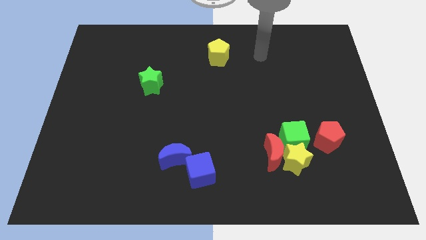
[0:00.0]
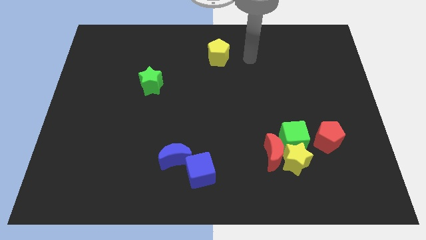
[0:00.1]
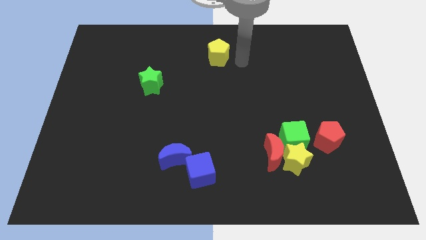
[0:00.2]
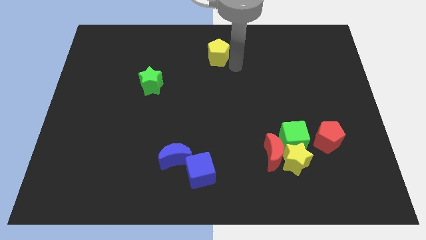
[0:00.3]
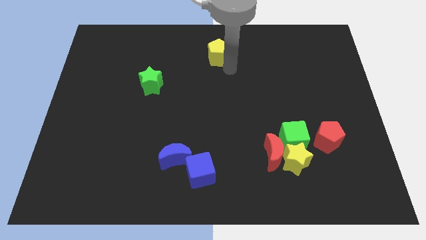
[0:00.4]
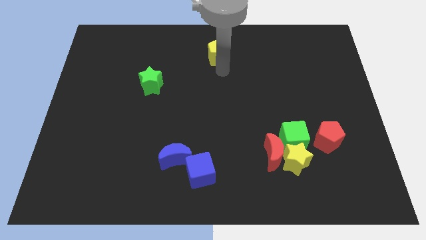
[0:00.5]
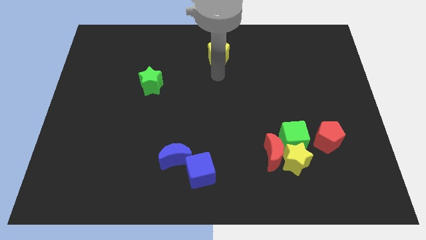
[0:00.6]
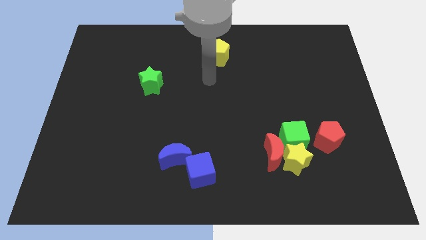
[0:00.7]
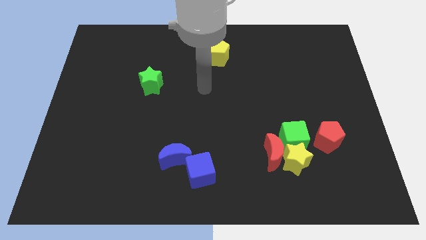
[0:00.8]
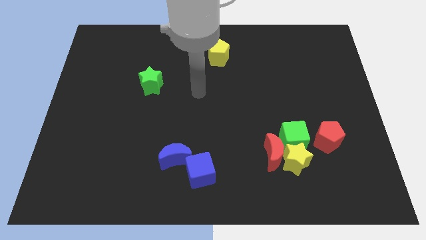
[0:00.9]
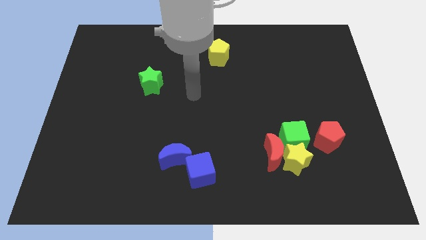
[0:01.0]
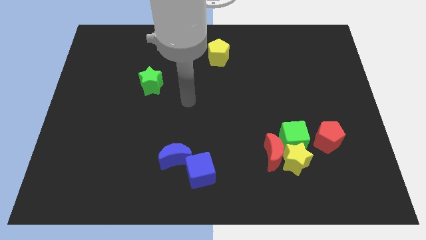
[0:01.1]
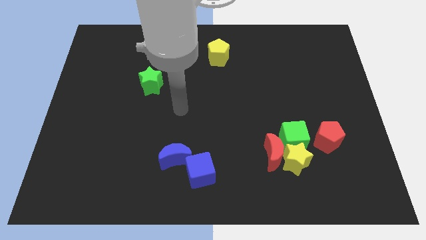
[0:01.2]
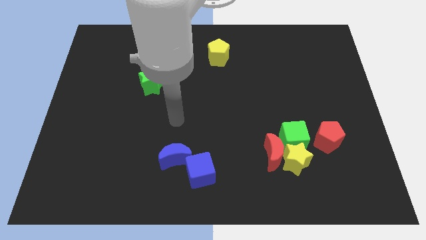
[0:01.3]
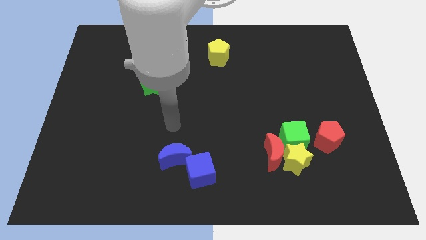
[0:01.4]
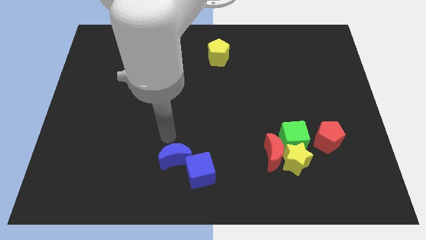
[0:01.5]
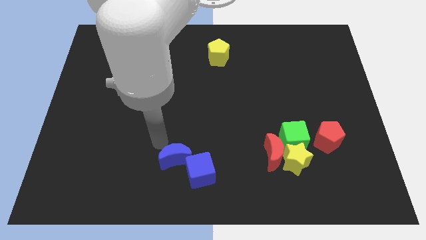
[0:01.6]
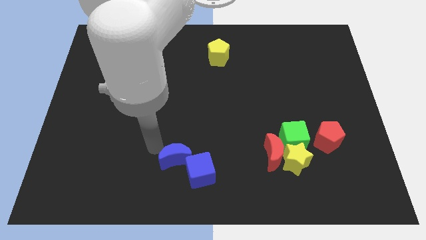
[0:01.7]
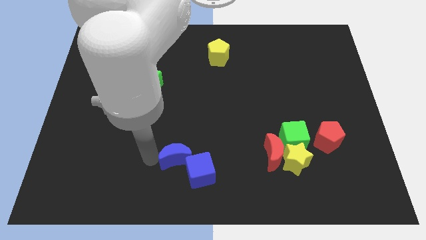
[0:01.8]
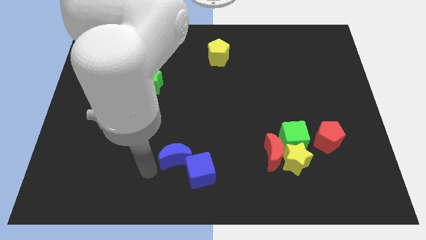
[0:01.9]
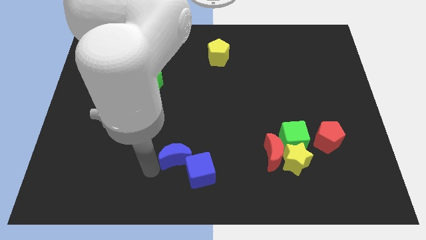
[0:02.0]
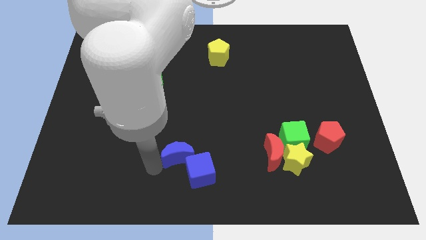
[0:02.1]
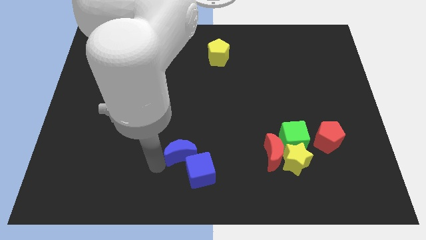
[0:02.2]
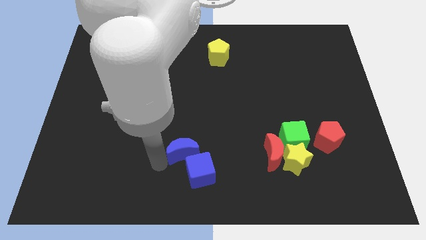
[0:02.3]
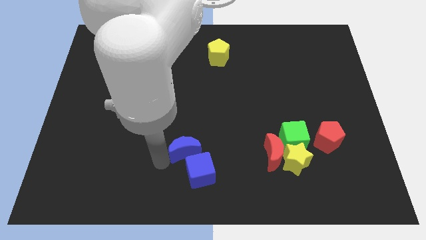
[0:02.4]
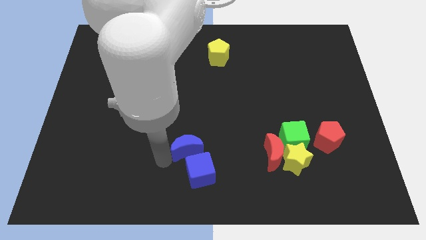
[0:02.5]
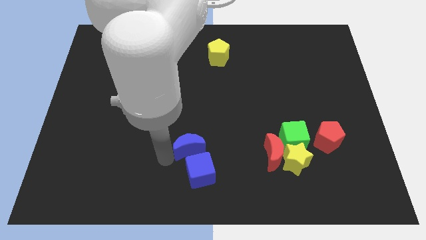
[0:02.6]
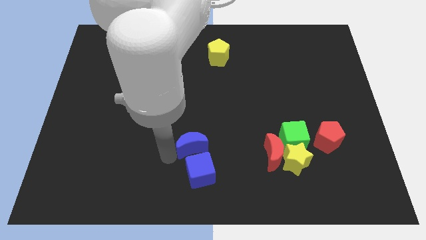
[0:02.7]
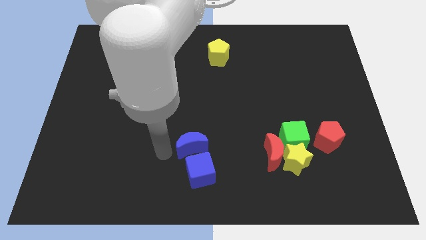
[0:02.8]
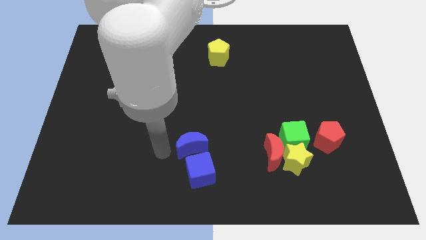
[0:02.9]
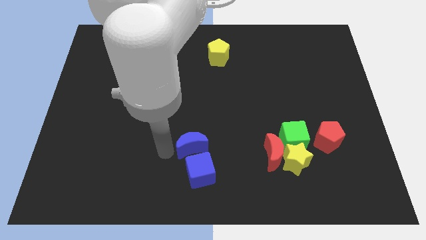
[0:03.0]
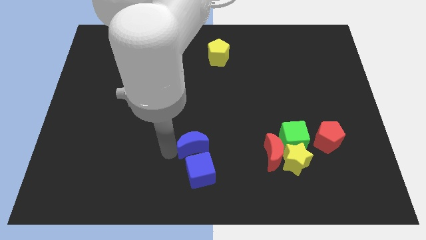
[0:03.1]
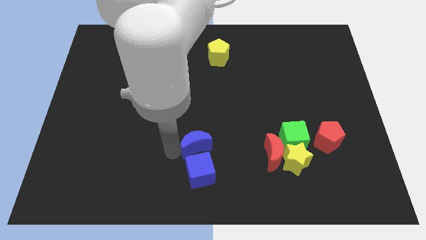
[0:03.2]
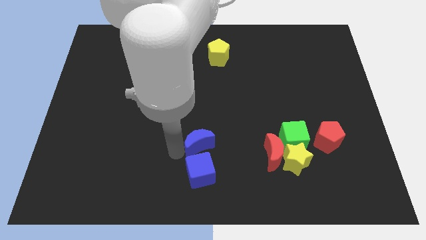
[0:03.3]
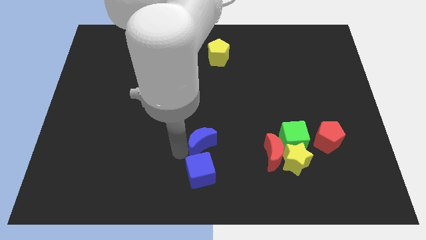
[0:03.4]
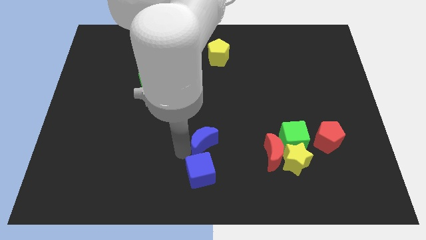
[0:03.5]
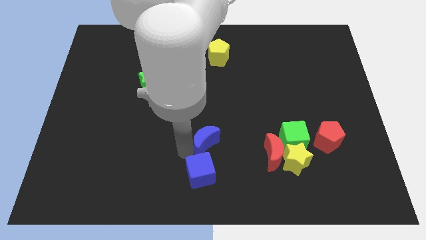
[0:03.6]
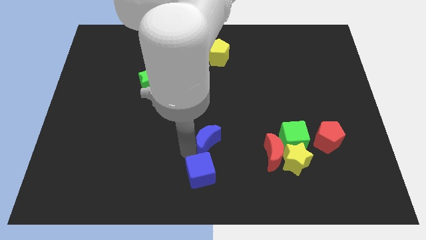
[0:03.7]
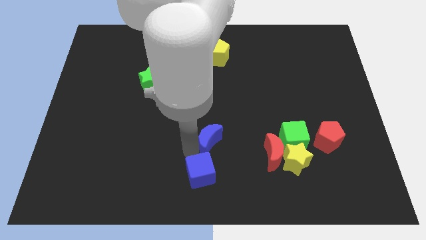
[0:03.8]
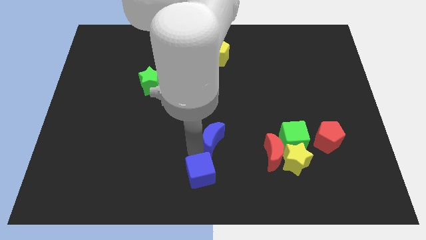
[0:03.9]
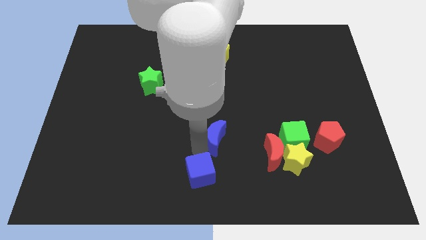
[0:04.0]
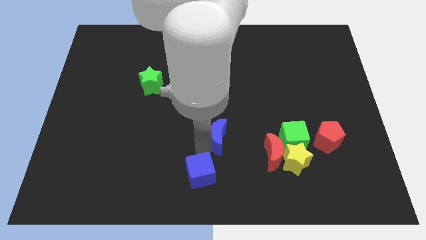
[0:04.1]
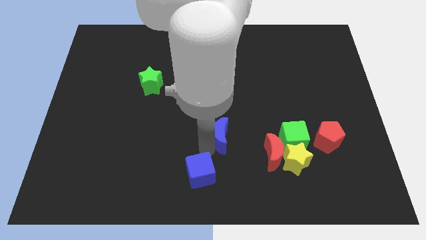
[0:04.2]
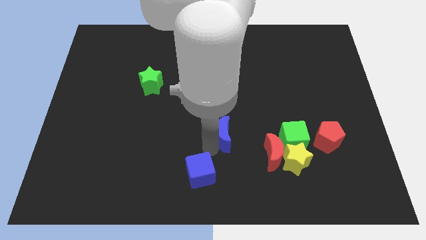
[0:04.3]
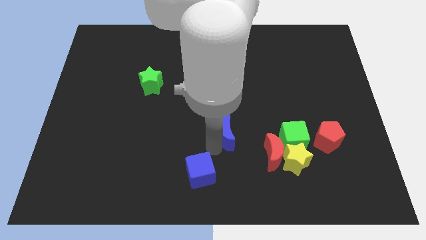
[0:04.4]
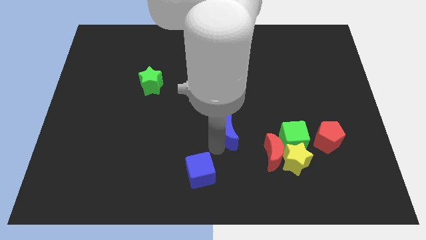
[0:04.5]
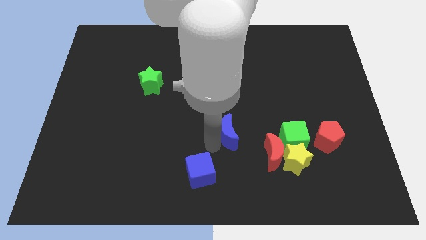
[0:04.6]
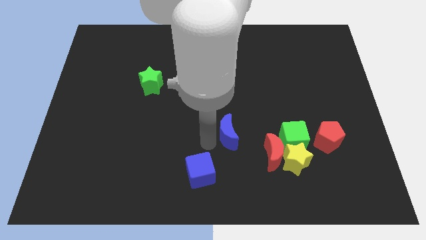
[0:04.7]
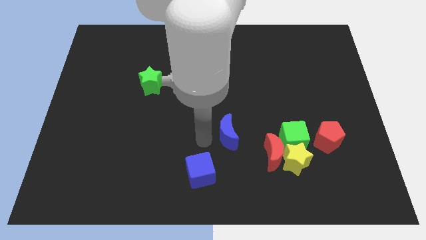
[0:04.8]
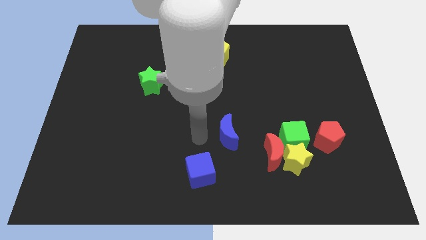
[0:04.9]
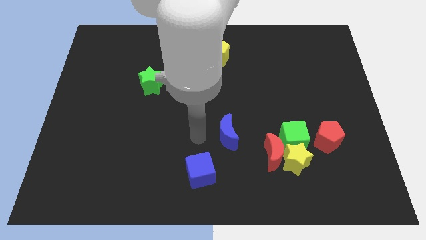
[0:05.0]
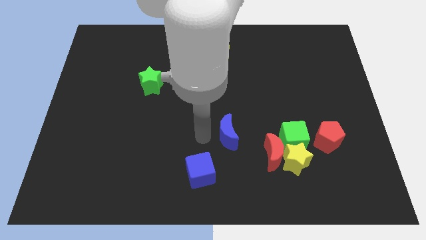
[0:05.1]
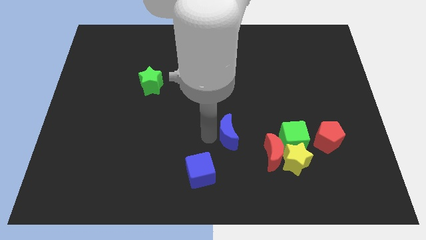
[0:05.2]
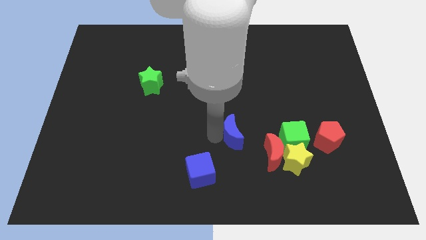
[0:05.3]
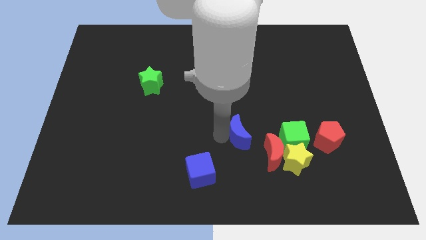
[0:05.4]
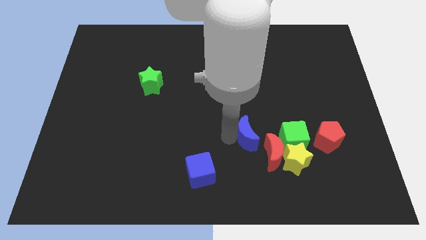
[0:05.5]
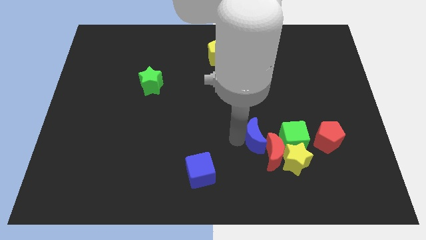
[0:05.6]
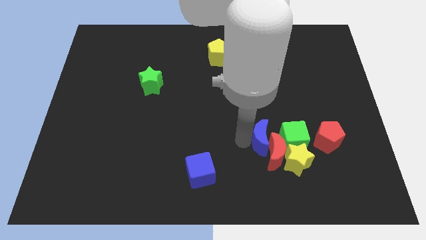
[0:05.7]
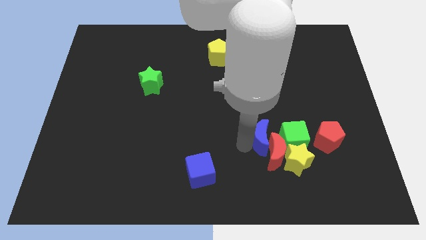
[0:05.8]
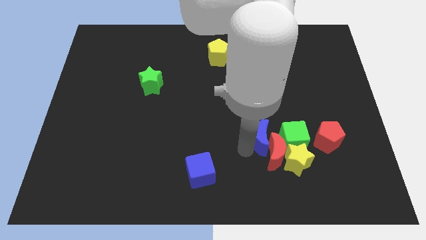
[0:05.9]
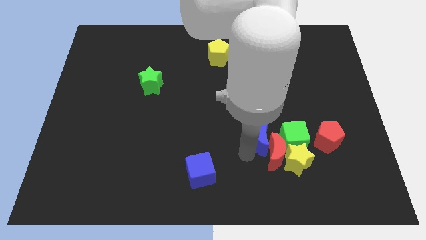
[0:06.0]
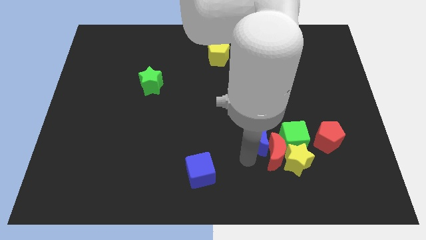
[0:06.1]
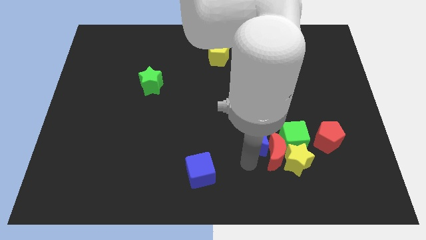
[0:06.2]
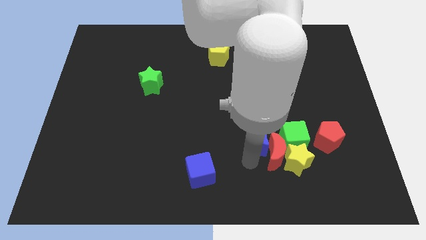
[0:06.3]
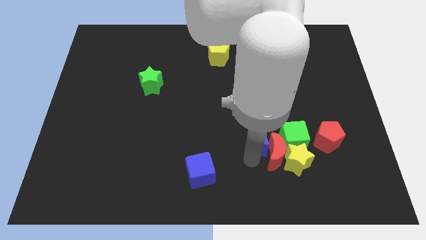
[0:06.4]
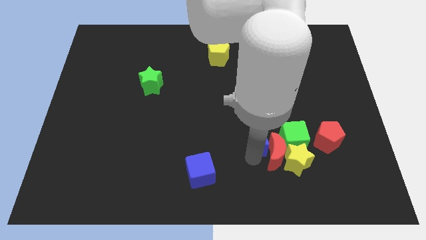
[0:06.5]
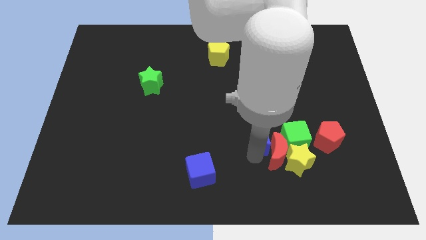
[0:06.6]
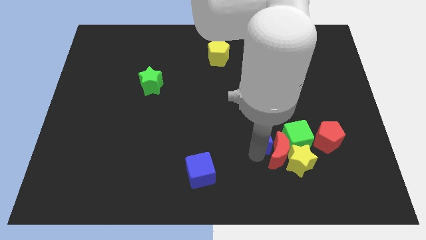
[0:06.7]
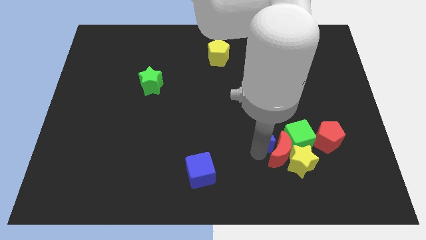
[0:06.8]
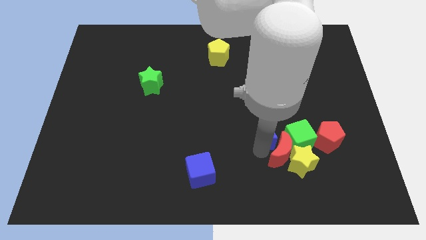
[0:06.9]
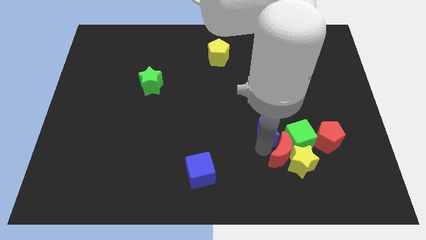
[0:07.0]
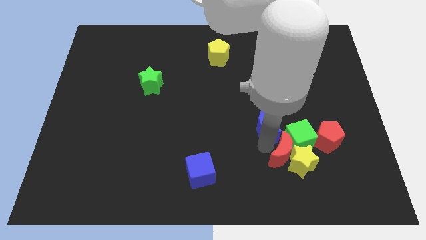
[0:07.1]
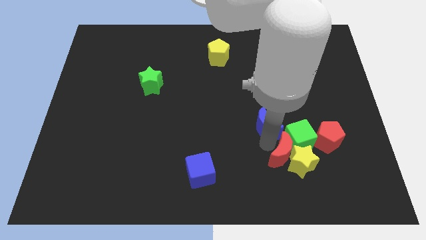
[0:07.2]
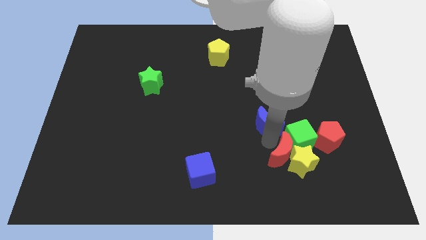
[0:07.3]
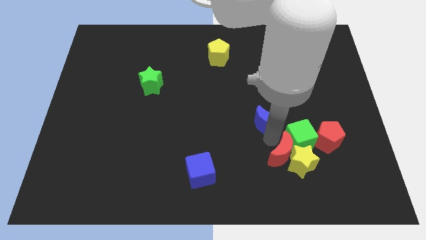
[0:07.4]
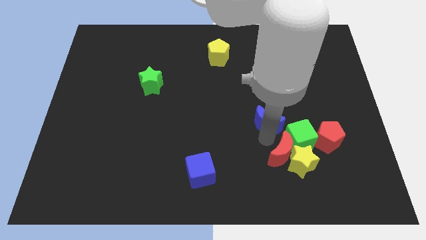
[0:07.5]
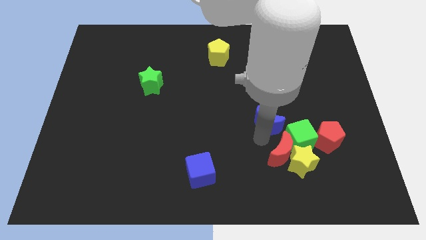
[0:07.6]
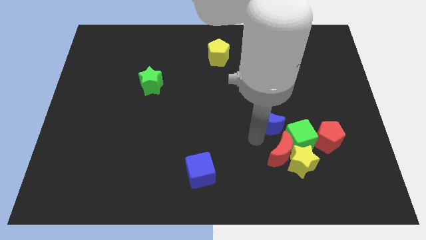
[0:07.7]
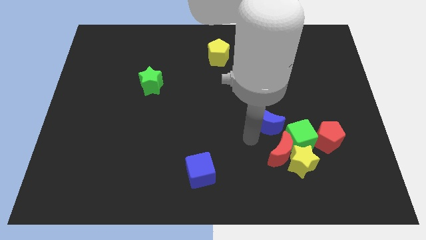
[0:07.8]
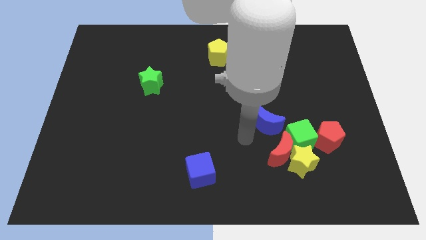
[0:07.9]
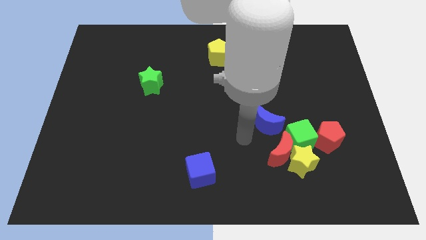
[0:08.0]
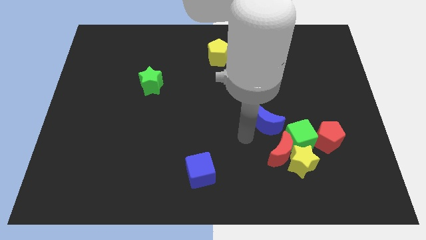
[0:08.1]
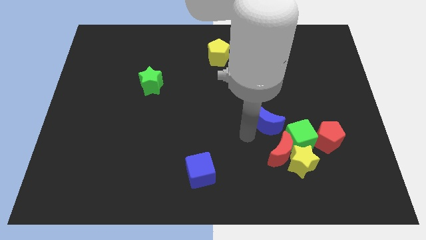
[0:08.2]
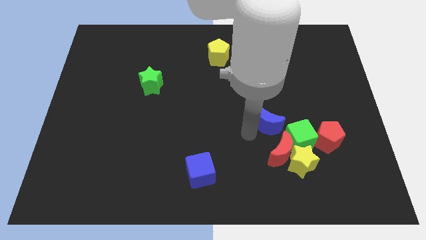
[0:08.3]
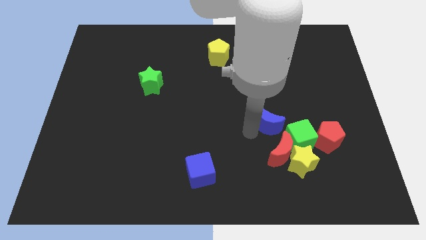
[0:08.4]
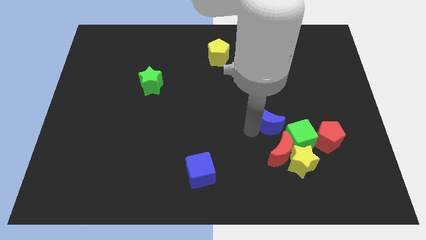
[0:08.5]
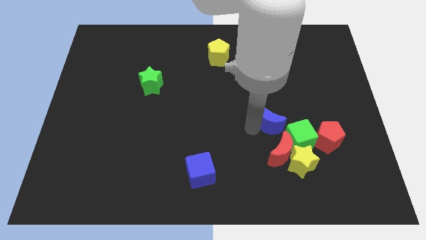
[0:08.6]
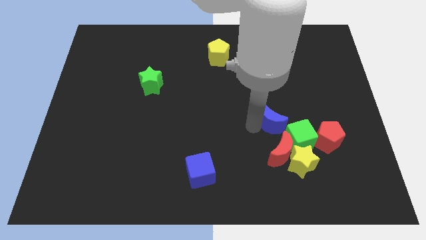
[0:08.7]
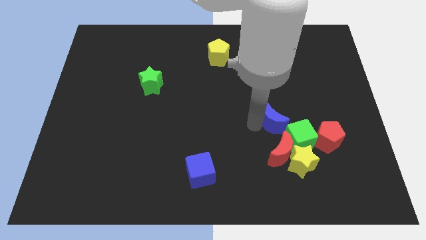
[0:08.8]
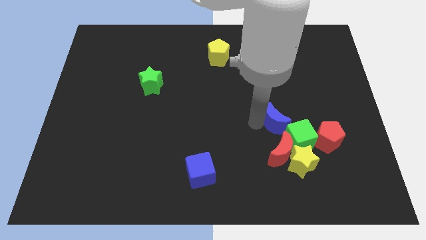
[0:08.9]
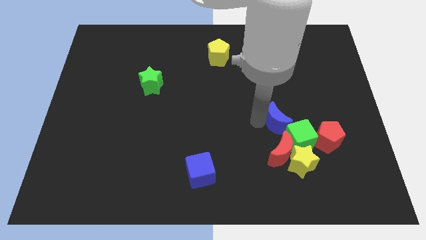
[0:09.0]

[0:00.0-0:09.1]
push the blue moon above the green cube
